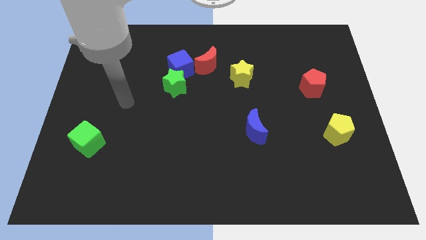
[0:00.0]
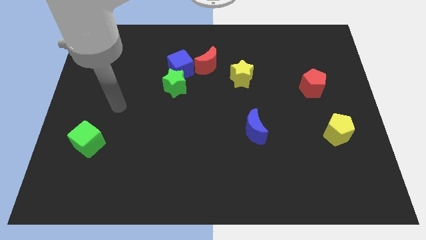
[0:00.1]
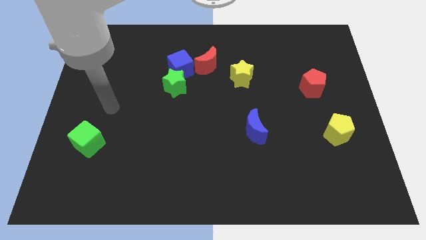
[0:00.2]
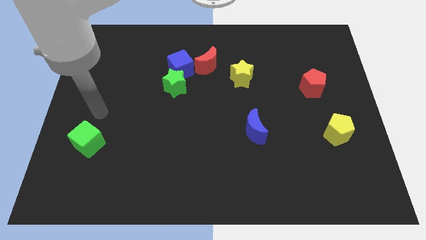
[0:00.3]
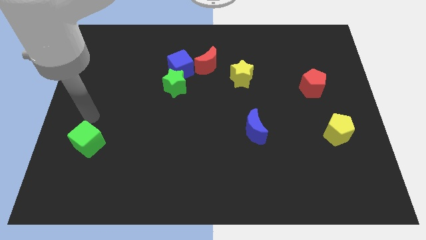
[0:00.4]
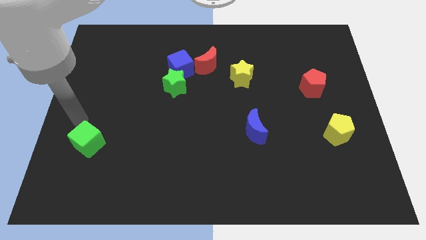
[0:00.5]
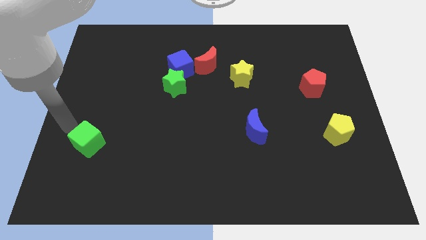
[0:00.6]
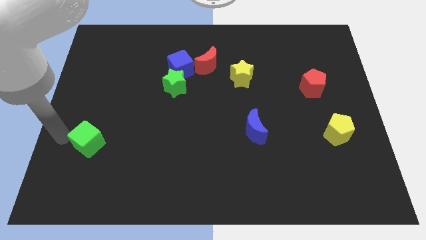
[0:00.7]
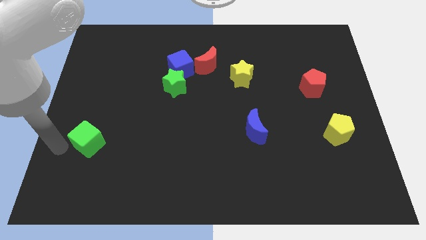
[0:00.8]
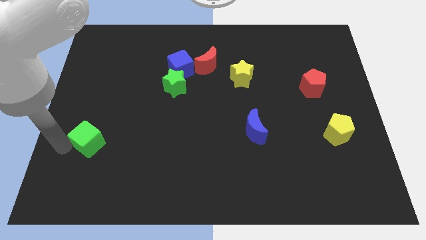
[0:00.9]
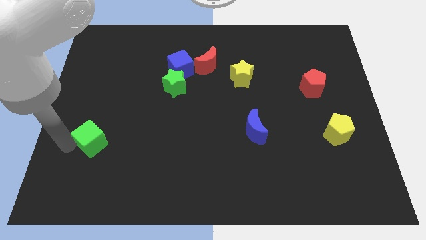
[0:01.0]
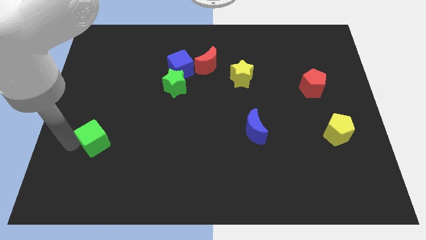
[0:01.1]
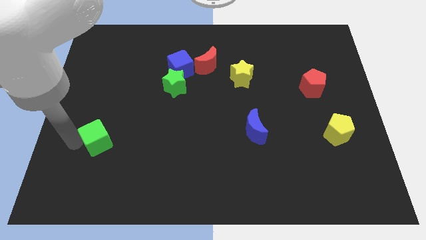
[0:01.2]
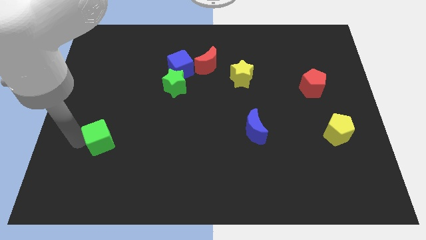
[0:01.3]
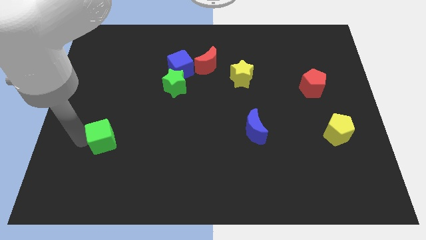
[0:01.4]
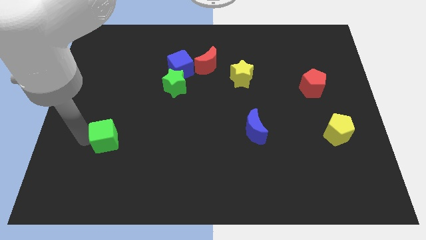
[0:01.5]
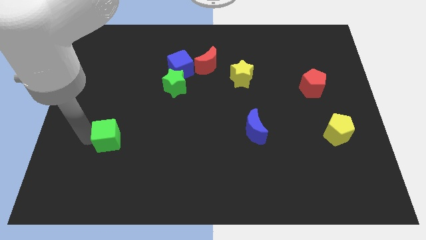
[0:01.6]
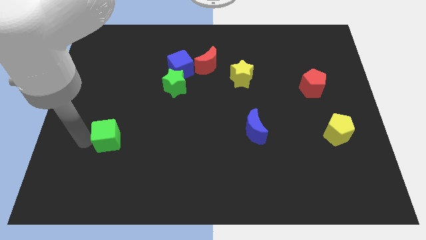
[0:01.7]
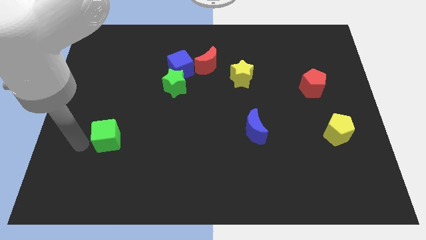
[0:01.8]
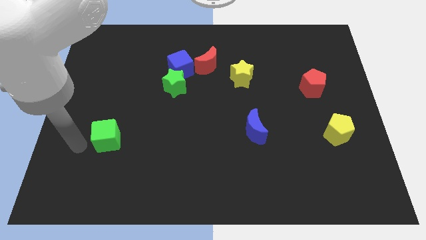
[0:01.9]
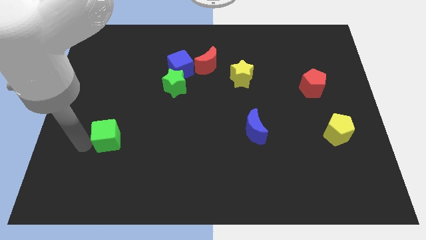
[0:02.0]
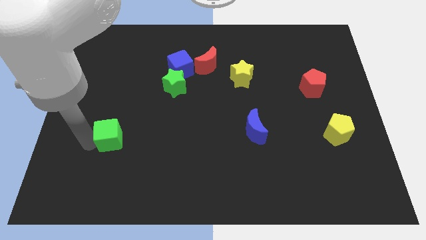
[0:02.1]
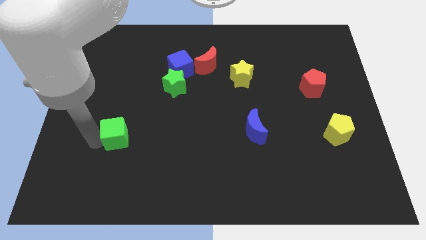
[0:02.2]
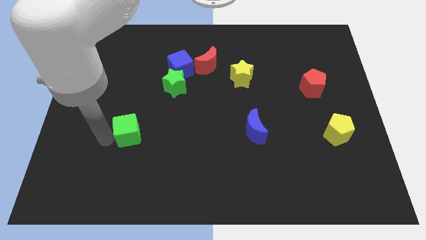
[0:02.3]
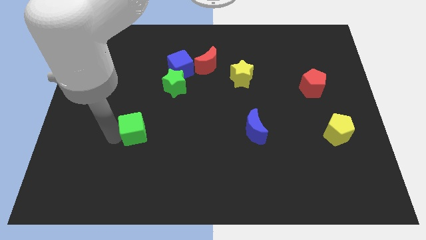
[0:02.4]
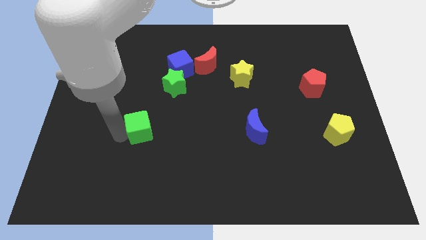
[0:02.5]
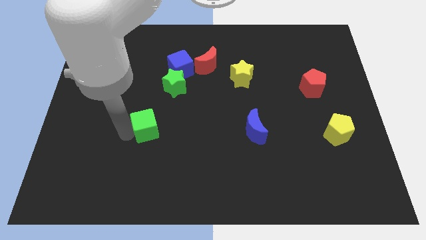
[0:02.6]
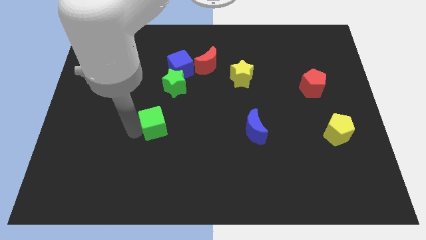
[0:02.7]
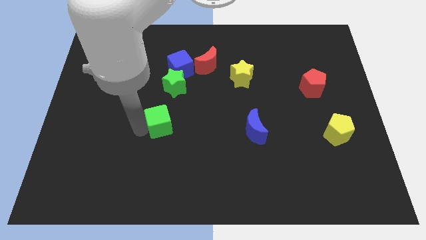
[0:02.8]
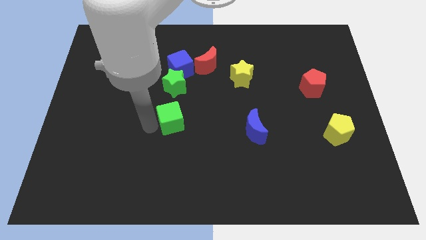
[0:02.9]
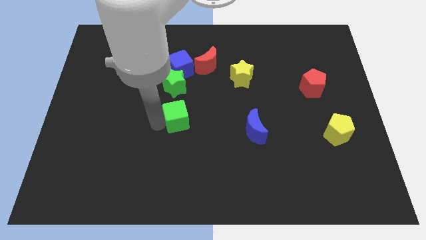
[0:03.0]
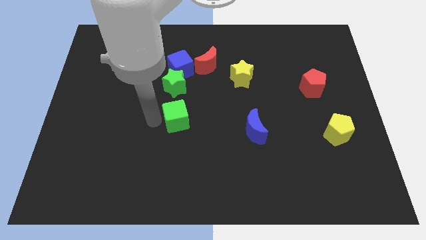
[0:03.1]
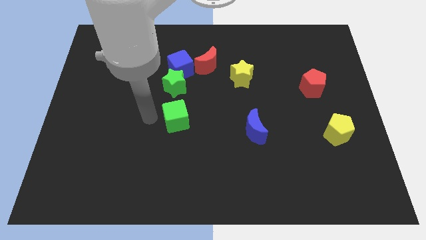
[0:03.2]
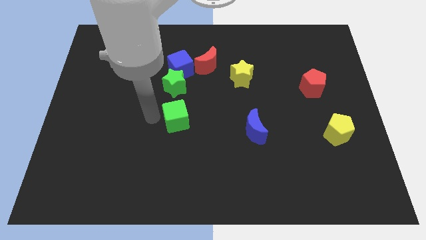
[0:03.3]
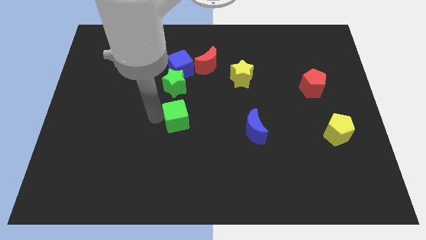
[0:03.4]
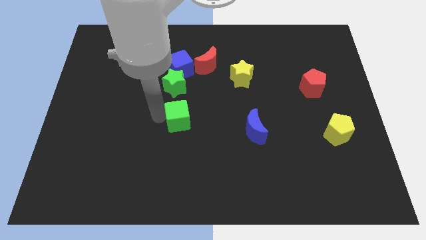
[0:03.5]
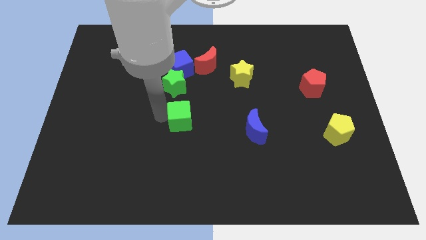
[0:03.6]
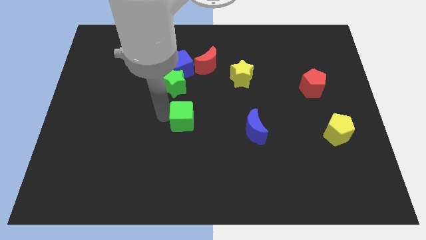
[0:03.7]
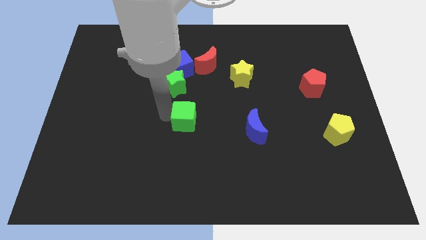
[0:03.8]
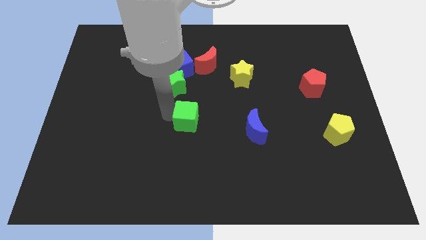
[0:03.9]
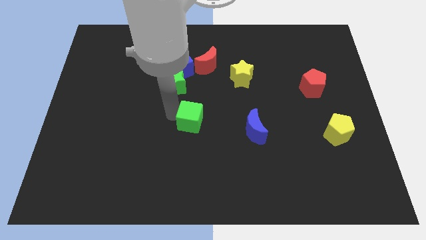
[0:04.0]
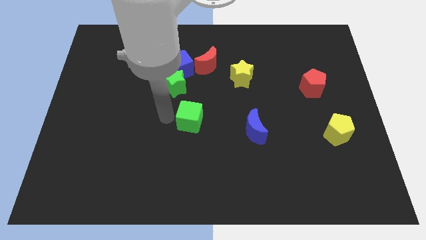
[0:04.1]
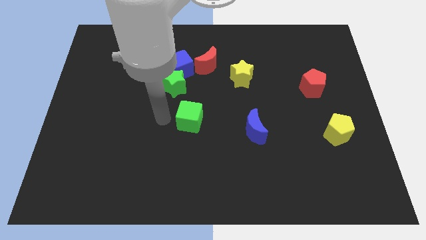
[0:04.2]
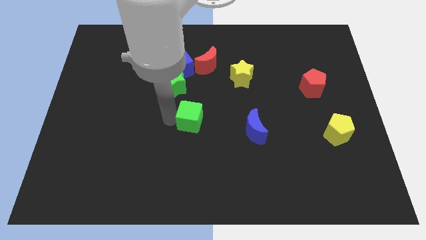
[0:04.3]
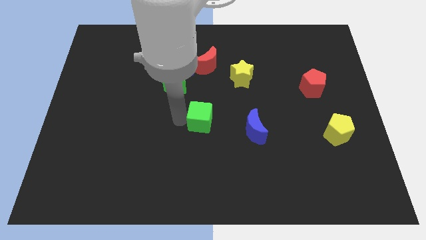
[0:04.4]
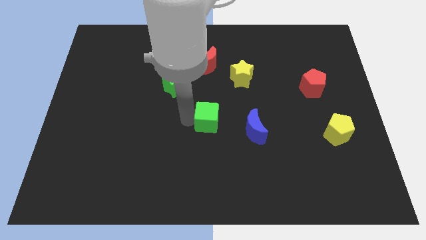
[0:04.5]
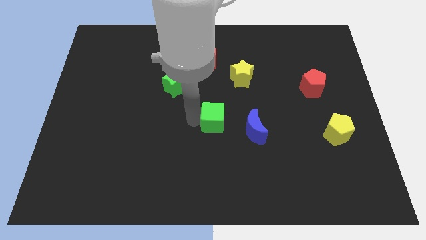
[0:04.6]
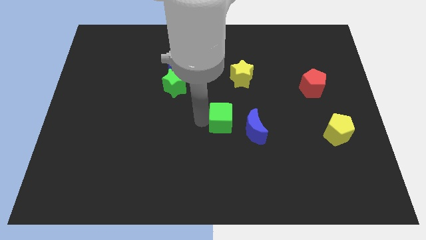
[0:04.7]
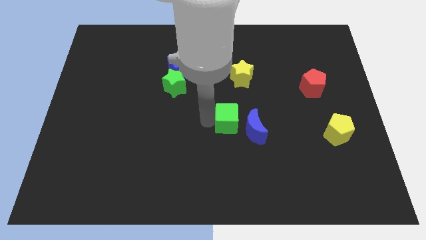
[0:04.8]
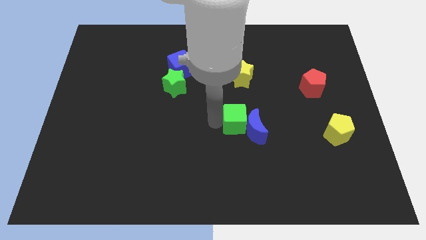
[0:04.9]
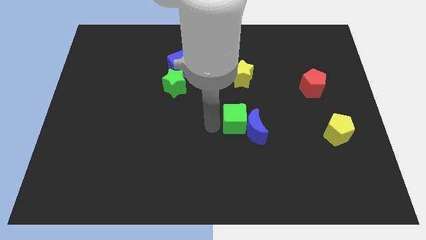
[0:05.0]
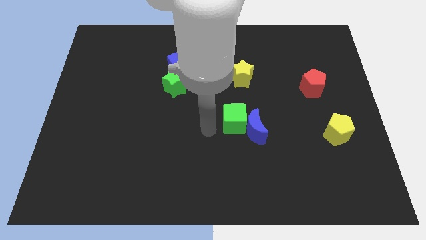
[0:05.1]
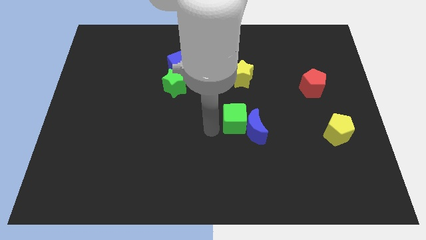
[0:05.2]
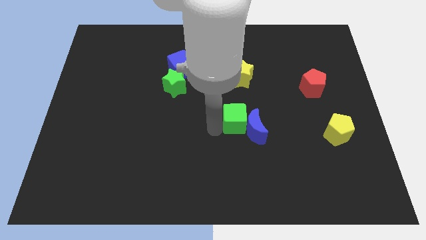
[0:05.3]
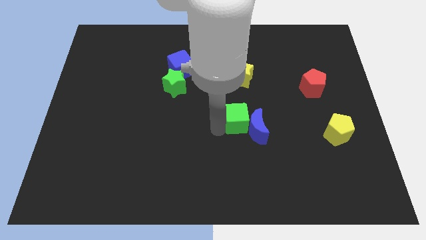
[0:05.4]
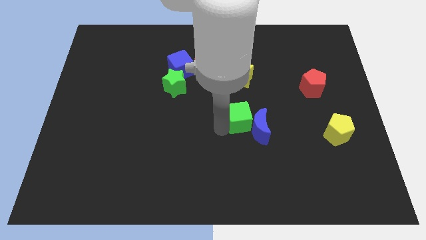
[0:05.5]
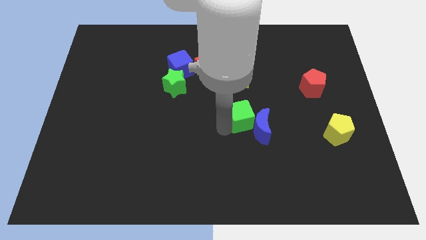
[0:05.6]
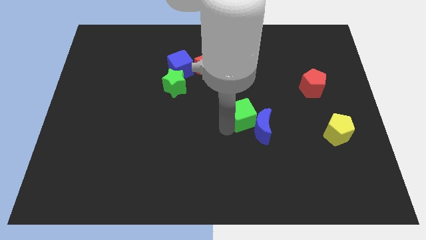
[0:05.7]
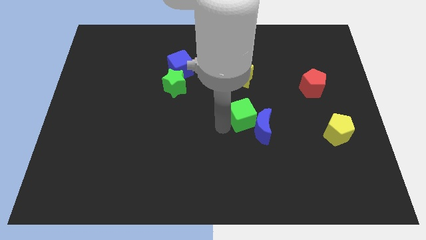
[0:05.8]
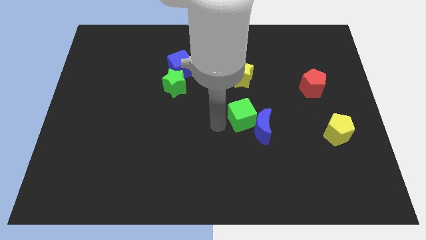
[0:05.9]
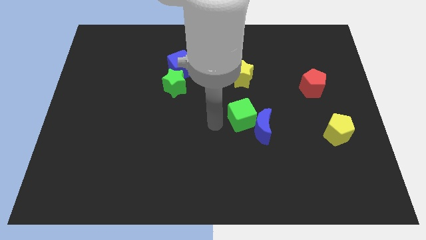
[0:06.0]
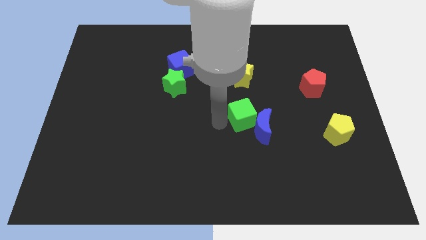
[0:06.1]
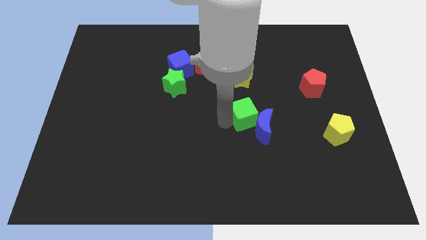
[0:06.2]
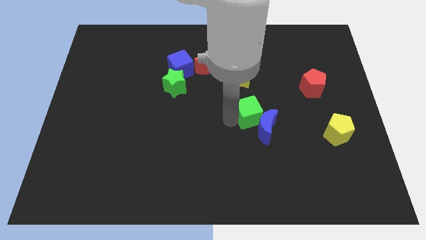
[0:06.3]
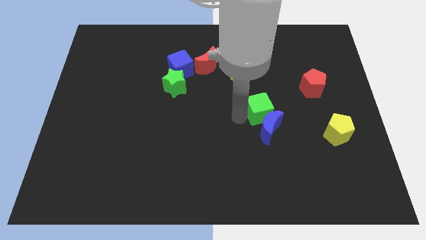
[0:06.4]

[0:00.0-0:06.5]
push the green cube diagonally up and to the right of the blue moon

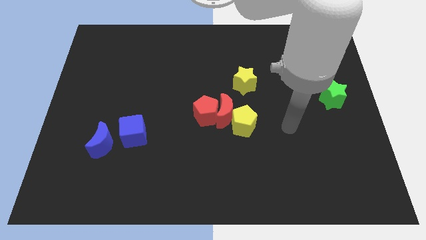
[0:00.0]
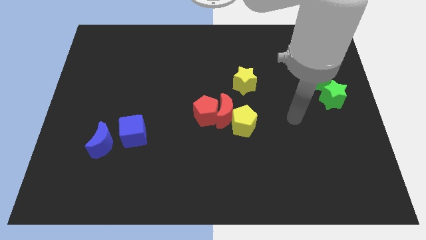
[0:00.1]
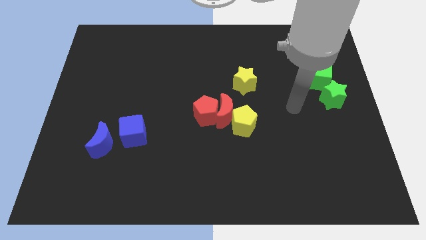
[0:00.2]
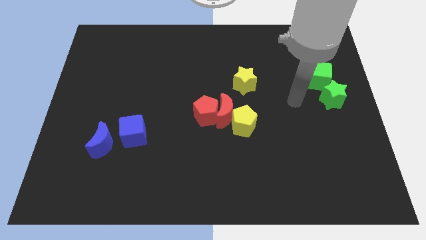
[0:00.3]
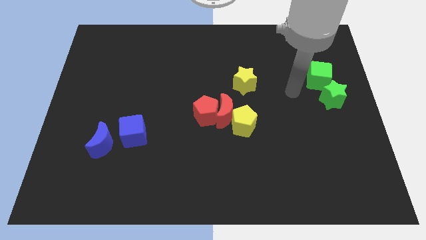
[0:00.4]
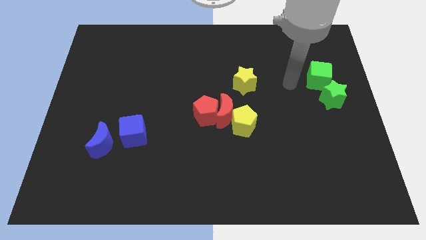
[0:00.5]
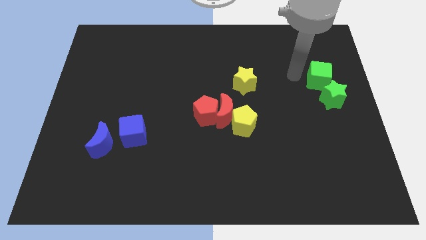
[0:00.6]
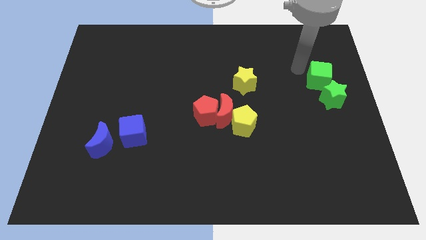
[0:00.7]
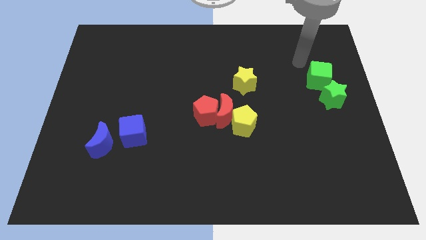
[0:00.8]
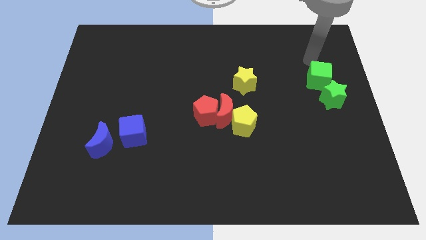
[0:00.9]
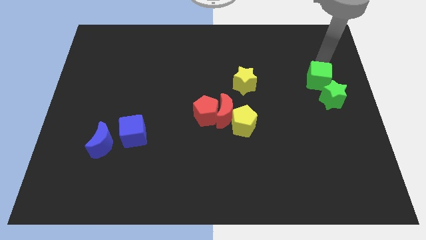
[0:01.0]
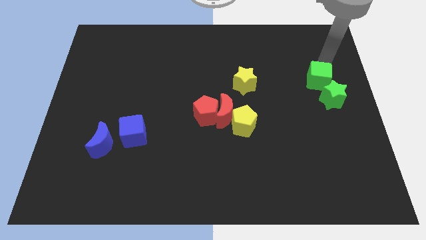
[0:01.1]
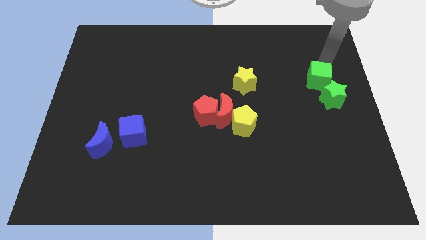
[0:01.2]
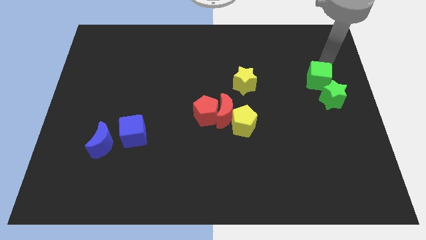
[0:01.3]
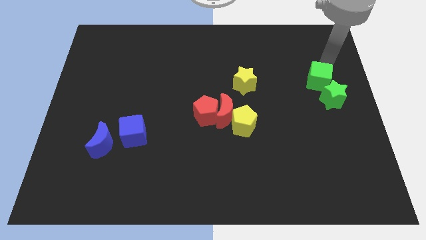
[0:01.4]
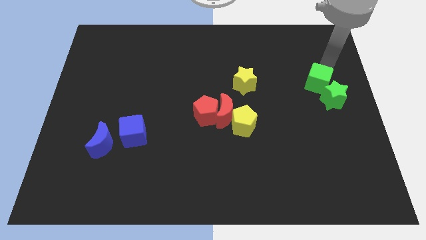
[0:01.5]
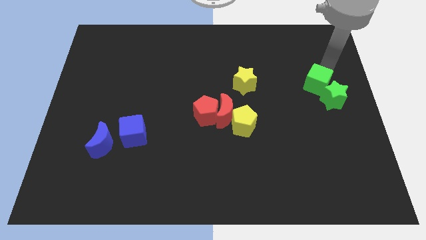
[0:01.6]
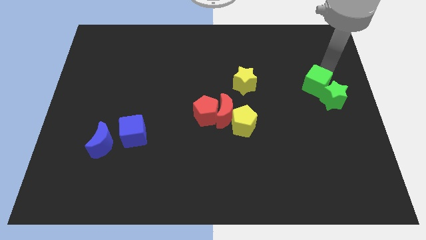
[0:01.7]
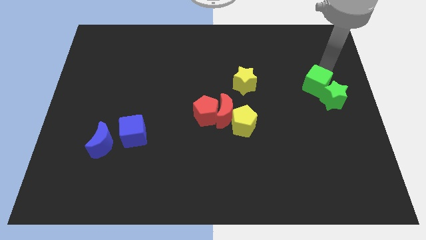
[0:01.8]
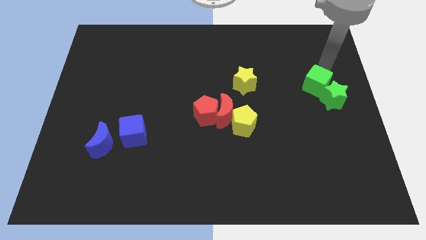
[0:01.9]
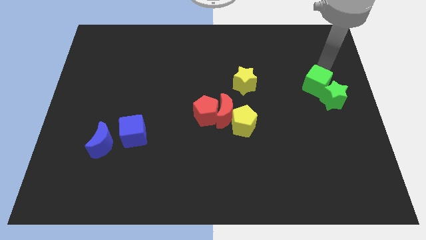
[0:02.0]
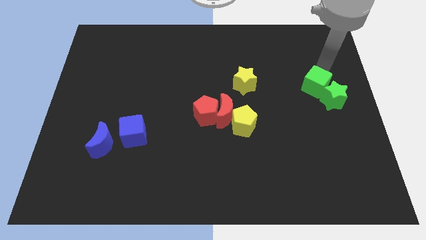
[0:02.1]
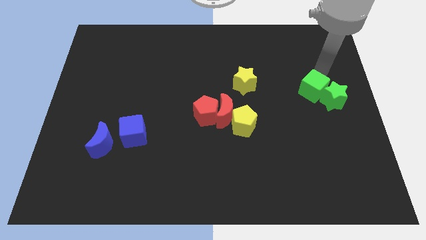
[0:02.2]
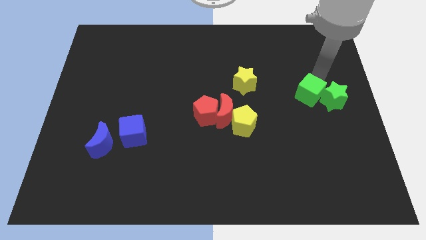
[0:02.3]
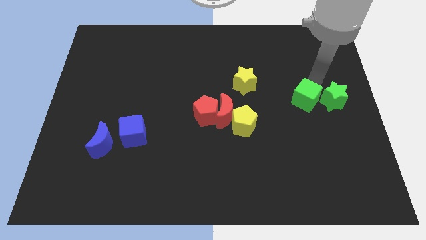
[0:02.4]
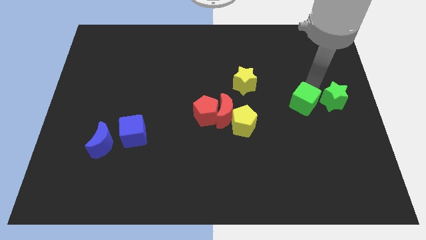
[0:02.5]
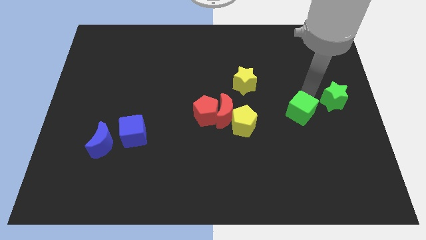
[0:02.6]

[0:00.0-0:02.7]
put the green cube right of the yellow pentagon
